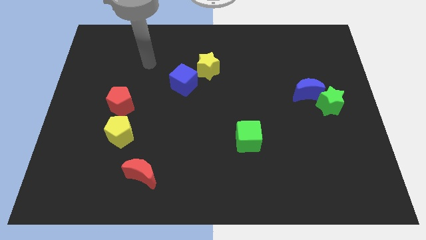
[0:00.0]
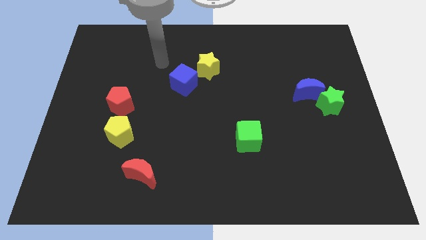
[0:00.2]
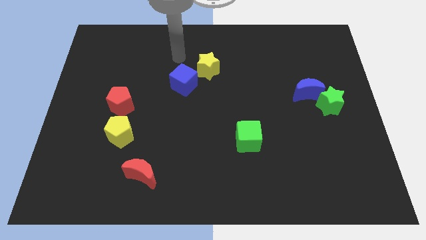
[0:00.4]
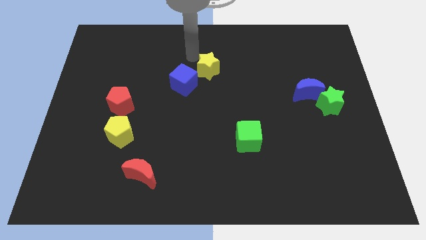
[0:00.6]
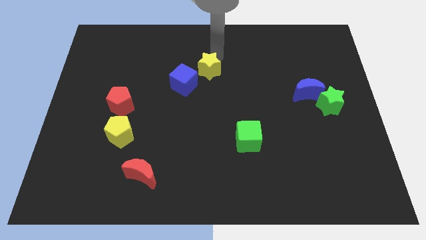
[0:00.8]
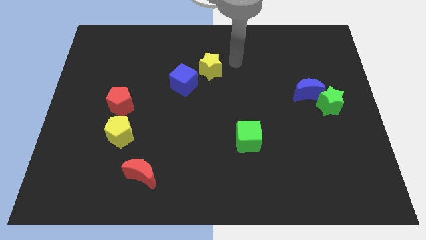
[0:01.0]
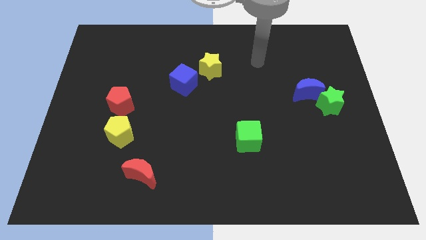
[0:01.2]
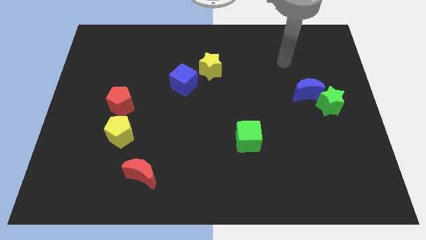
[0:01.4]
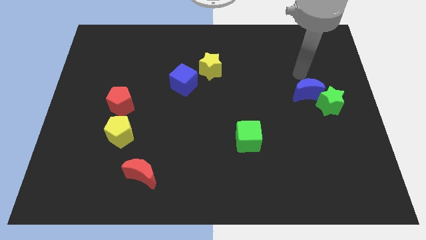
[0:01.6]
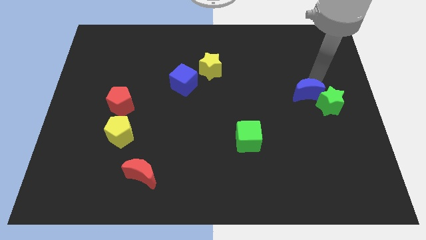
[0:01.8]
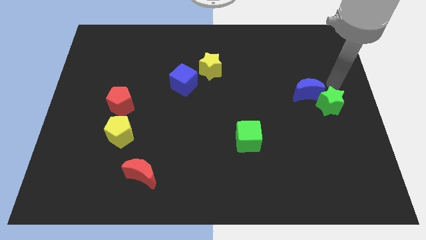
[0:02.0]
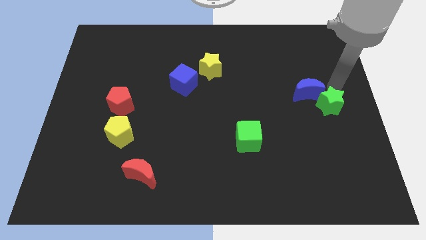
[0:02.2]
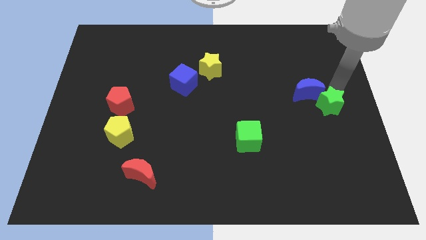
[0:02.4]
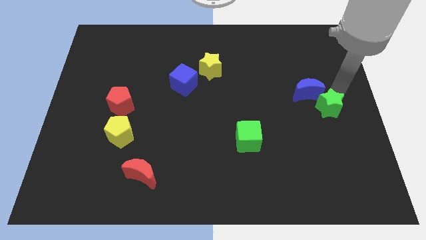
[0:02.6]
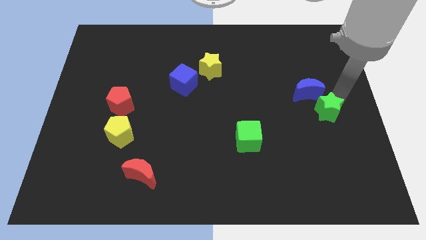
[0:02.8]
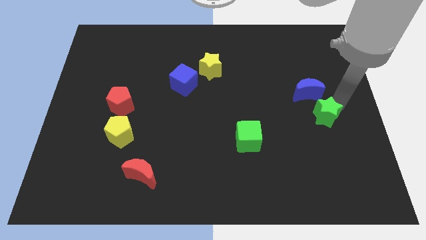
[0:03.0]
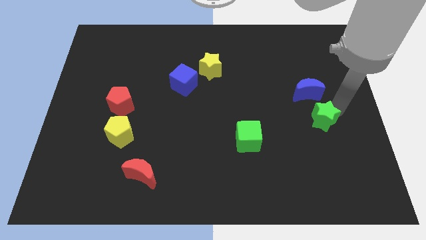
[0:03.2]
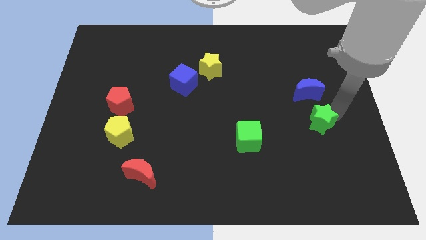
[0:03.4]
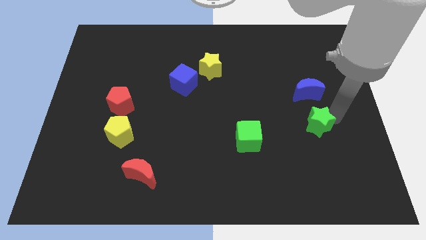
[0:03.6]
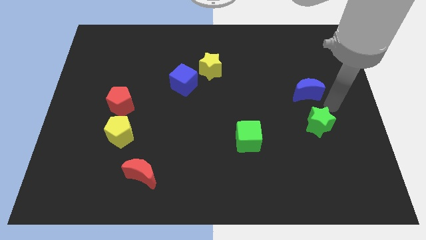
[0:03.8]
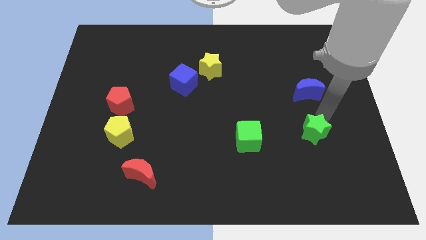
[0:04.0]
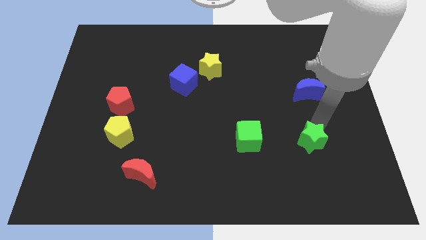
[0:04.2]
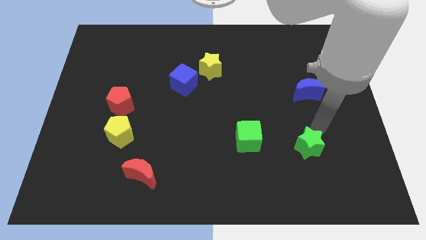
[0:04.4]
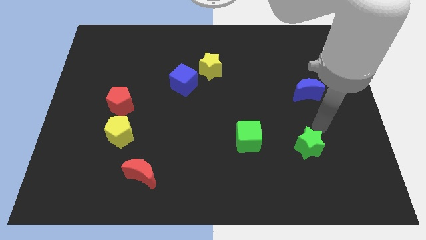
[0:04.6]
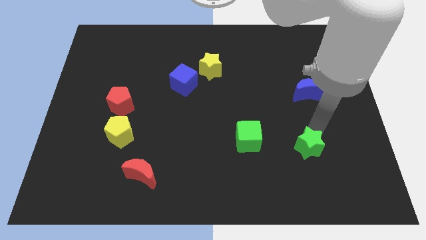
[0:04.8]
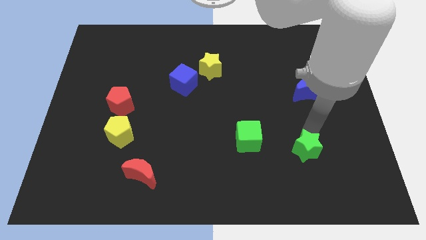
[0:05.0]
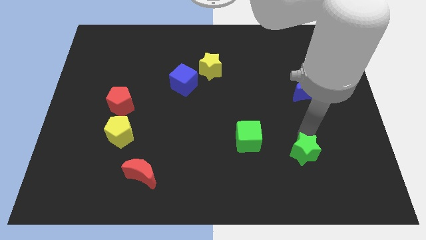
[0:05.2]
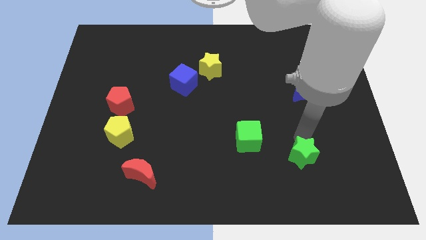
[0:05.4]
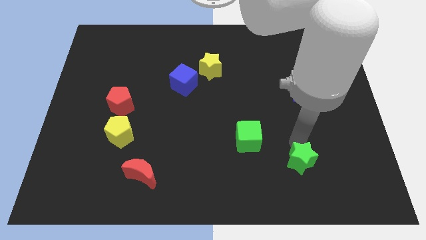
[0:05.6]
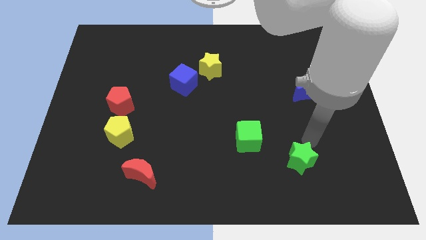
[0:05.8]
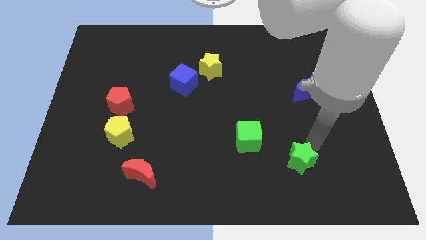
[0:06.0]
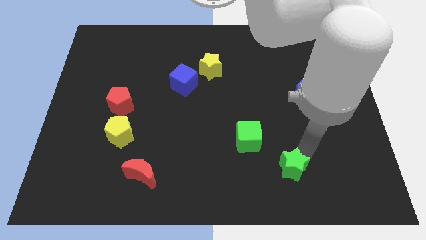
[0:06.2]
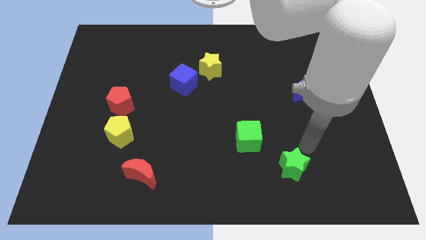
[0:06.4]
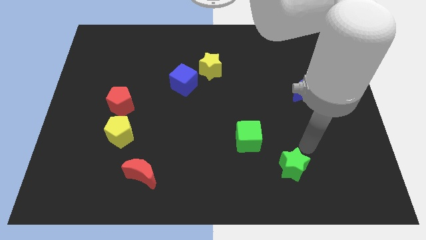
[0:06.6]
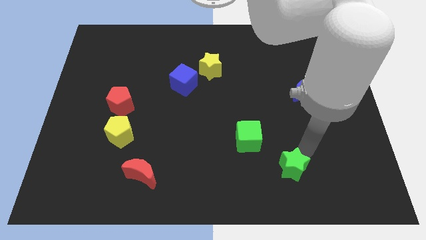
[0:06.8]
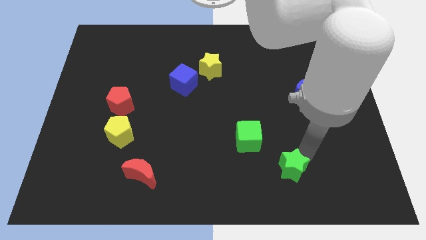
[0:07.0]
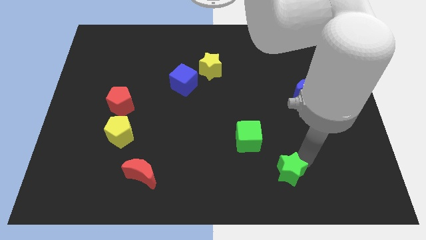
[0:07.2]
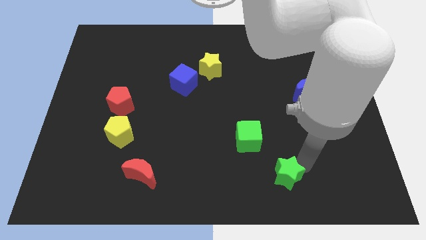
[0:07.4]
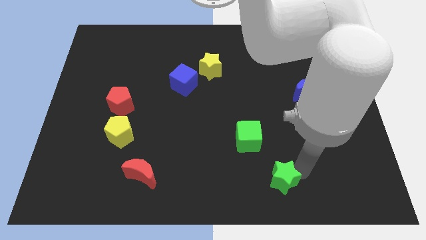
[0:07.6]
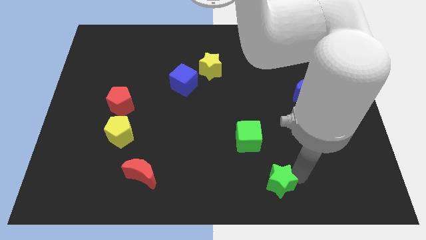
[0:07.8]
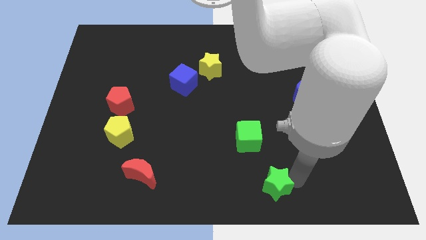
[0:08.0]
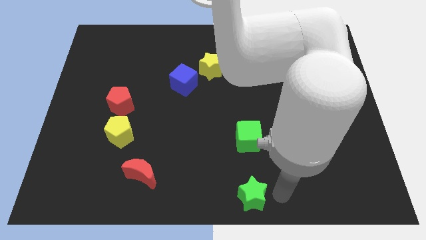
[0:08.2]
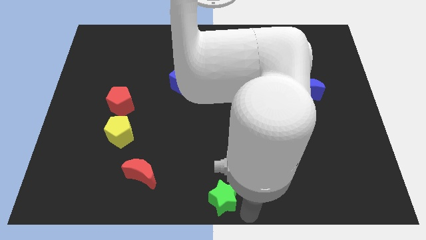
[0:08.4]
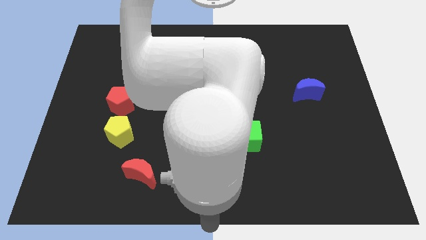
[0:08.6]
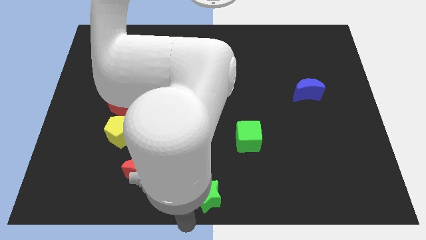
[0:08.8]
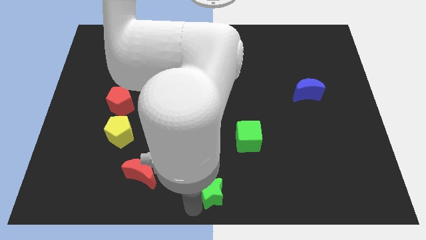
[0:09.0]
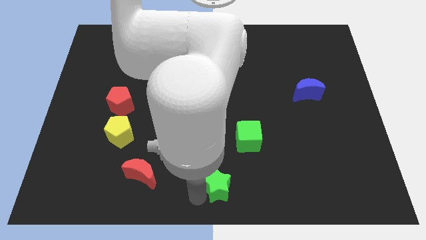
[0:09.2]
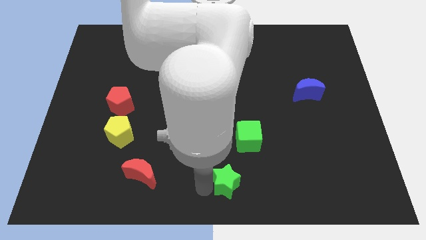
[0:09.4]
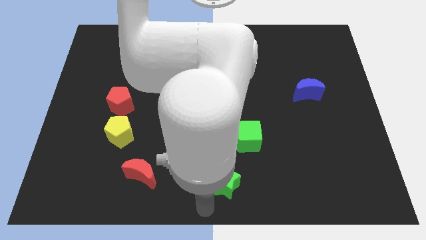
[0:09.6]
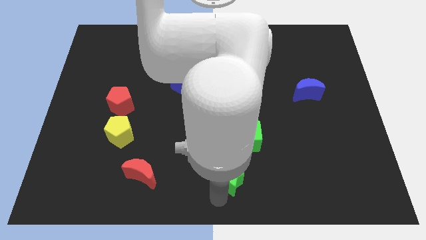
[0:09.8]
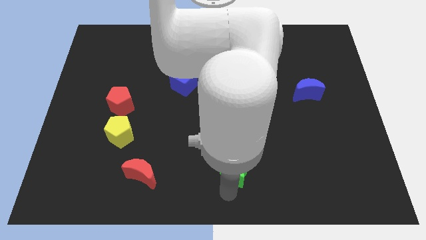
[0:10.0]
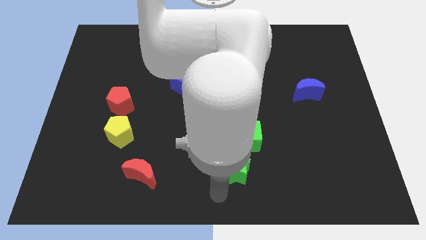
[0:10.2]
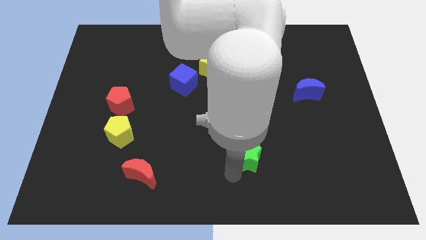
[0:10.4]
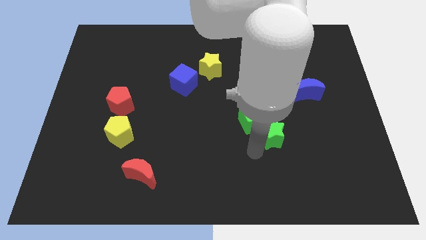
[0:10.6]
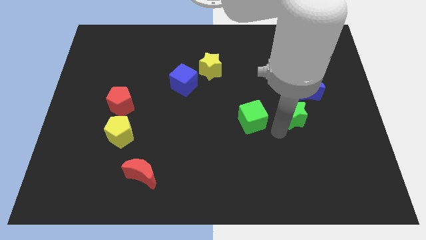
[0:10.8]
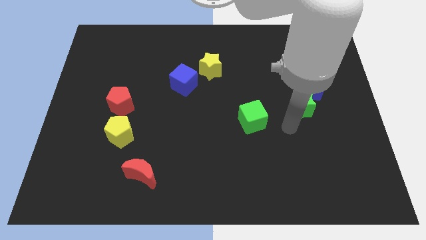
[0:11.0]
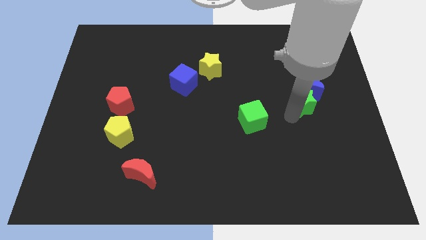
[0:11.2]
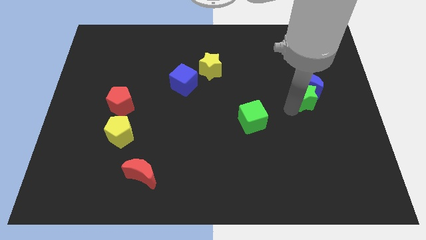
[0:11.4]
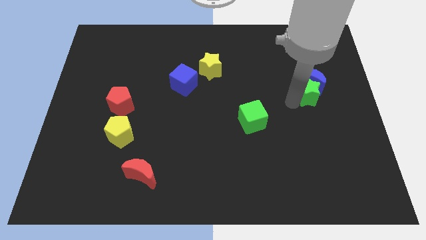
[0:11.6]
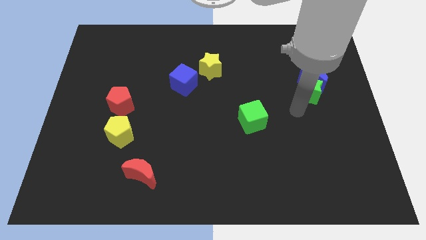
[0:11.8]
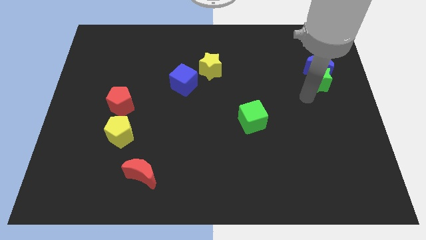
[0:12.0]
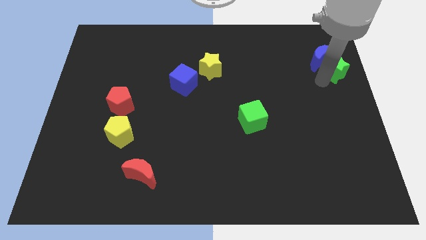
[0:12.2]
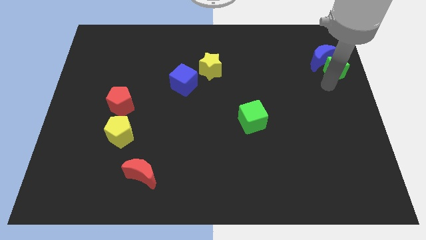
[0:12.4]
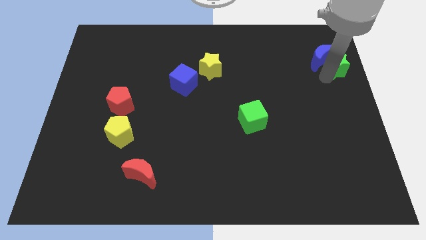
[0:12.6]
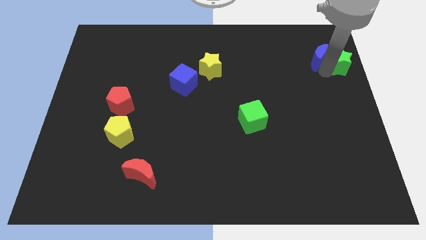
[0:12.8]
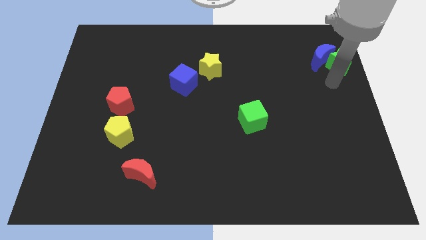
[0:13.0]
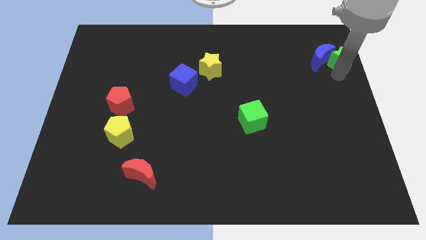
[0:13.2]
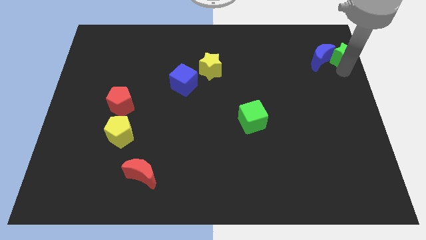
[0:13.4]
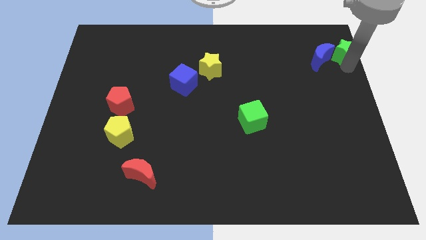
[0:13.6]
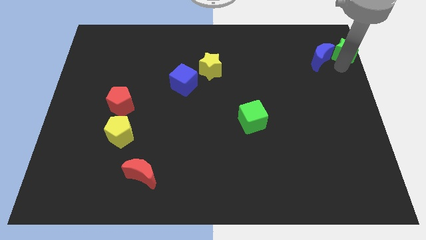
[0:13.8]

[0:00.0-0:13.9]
slide the green star to the top right corner
